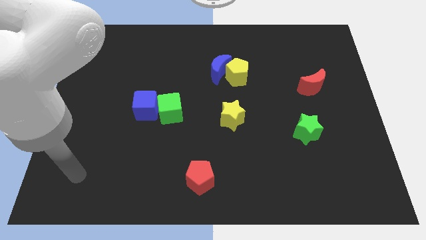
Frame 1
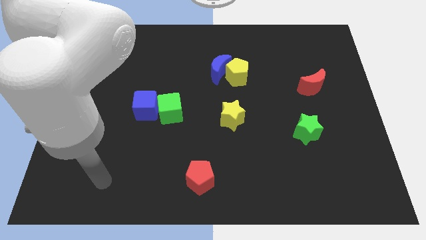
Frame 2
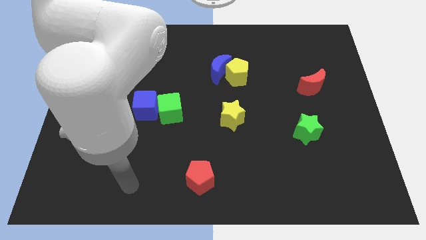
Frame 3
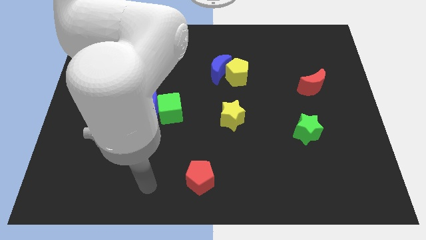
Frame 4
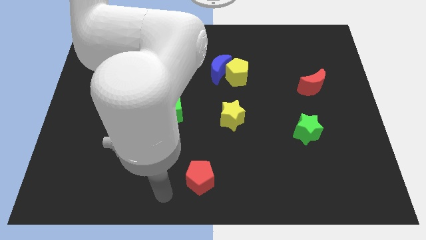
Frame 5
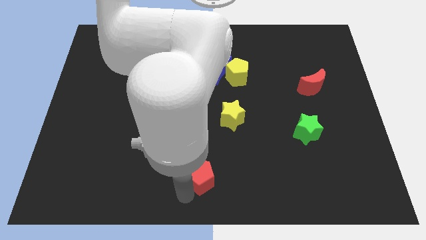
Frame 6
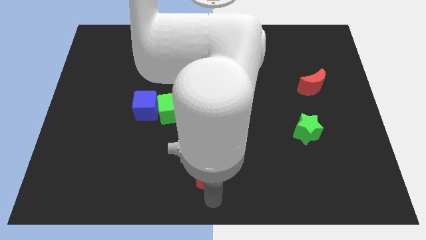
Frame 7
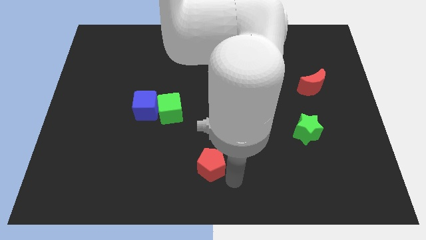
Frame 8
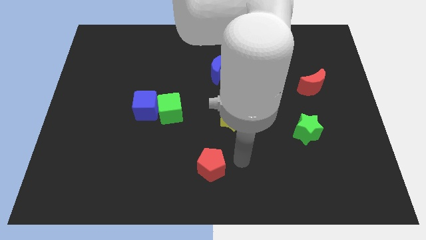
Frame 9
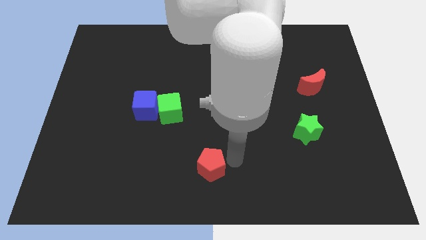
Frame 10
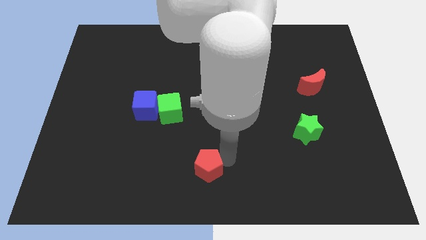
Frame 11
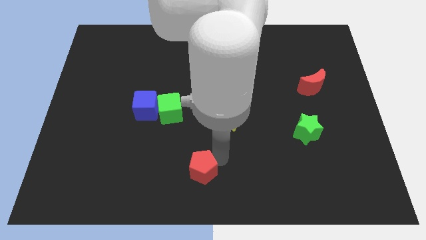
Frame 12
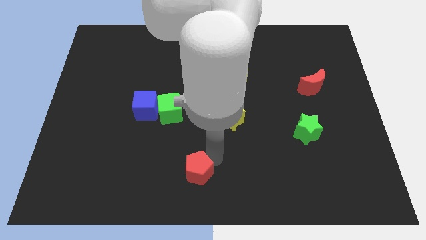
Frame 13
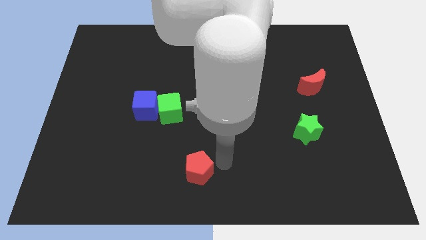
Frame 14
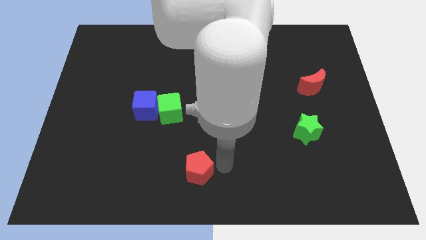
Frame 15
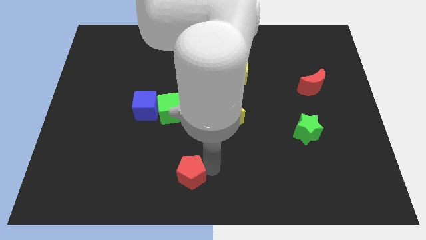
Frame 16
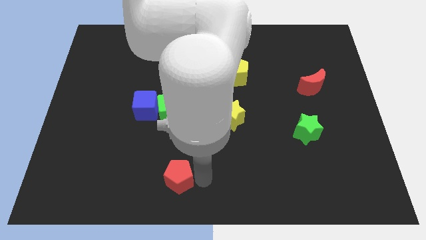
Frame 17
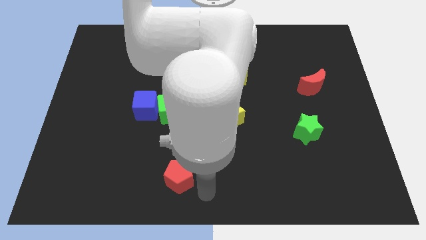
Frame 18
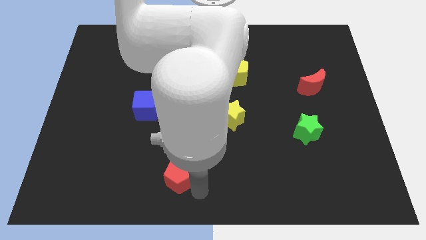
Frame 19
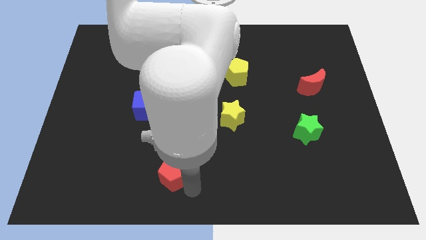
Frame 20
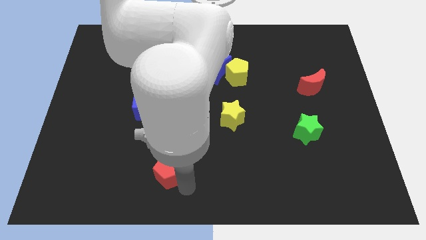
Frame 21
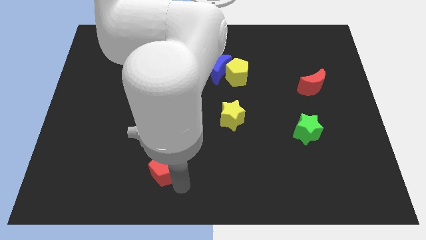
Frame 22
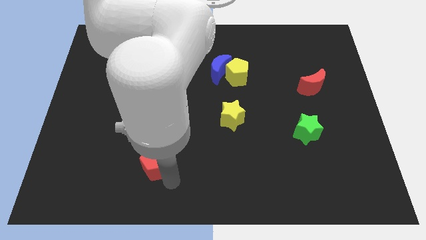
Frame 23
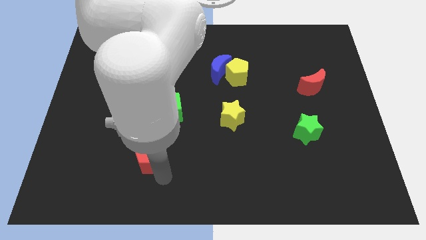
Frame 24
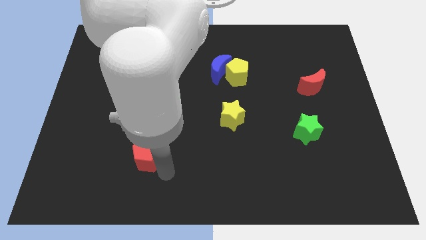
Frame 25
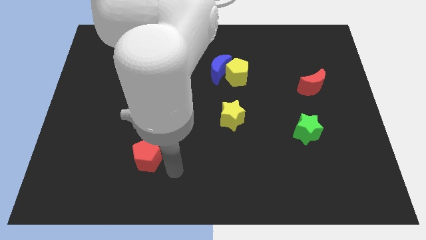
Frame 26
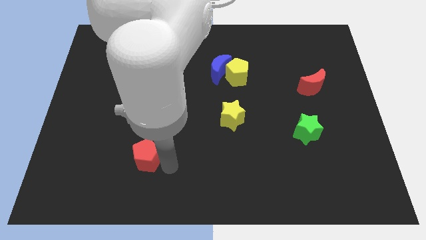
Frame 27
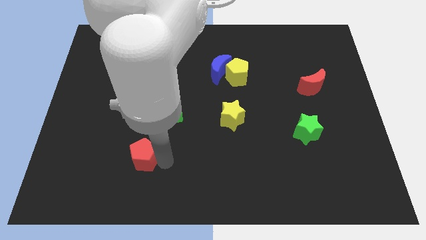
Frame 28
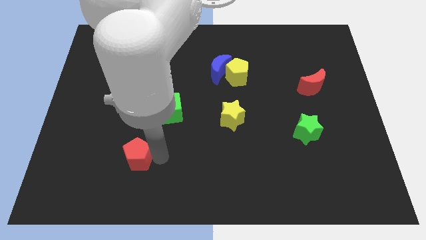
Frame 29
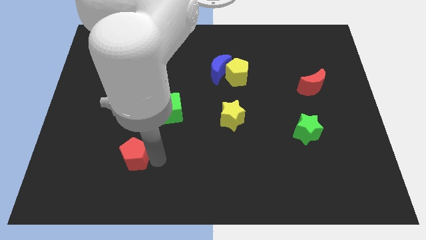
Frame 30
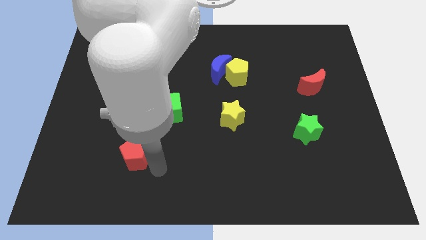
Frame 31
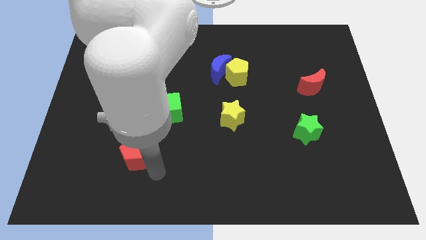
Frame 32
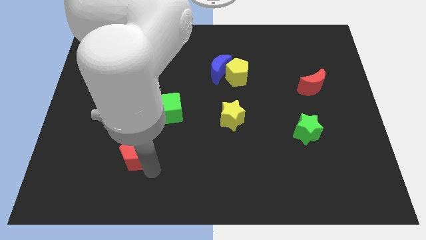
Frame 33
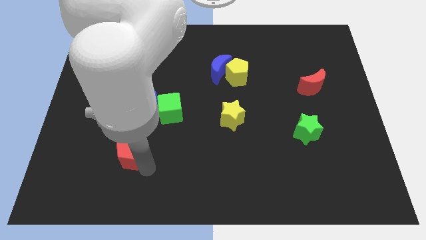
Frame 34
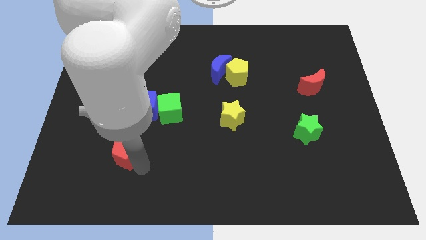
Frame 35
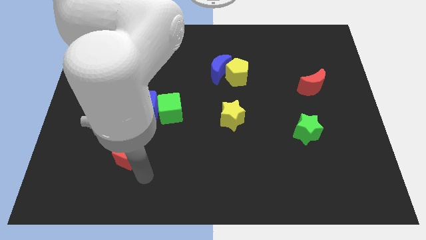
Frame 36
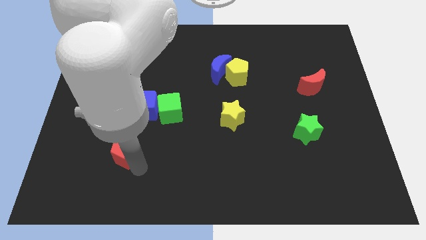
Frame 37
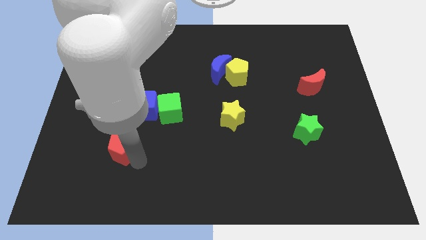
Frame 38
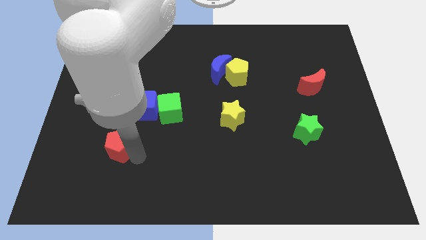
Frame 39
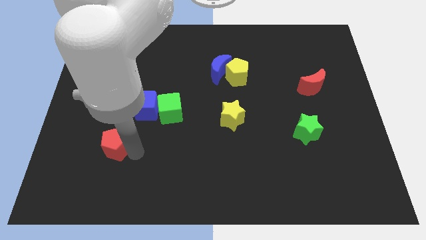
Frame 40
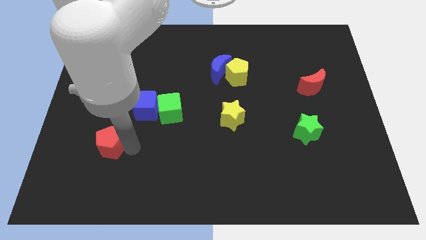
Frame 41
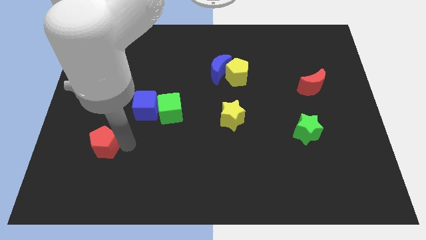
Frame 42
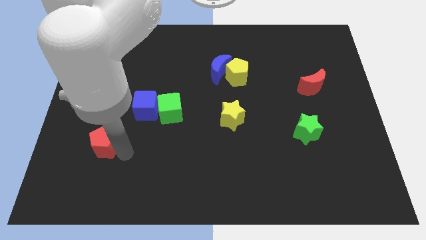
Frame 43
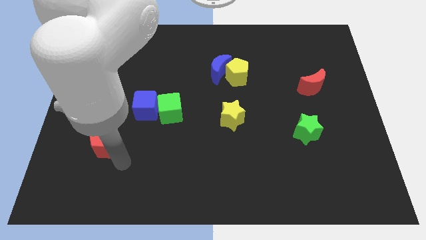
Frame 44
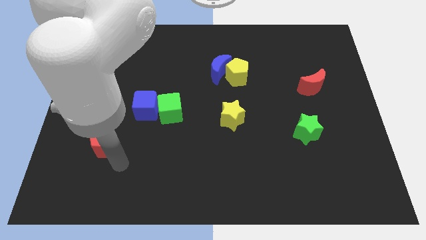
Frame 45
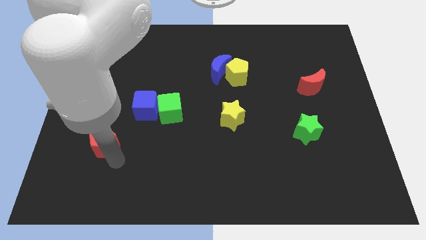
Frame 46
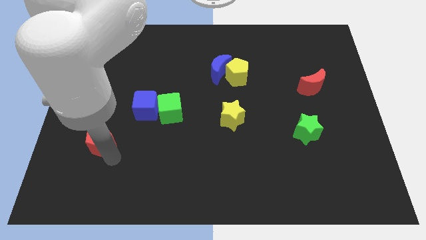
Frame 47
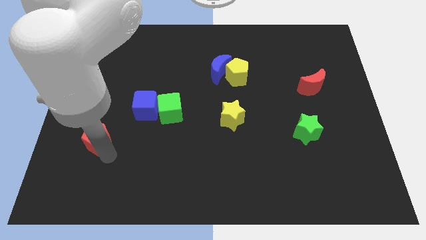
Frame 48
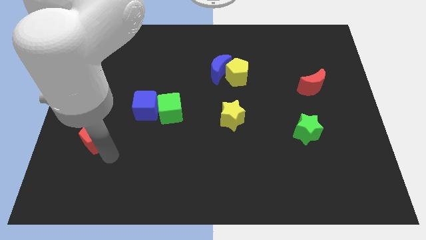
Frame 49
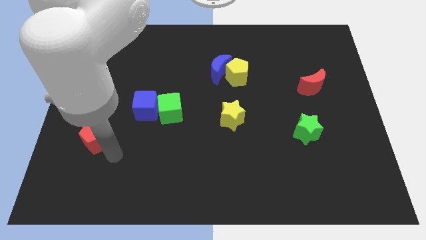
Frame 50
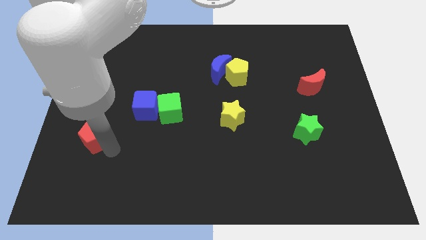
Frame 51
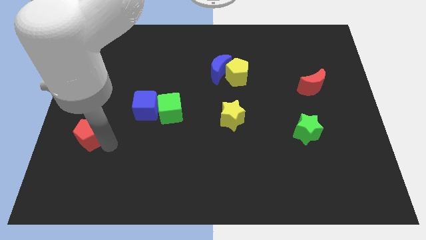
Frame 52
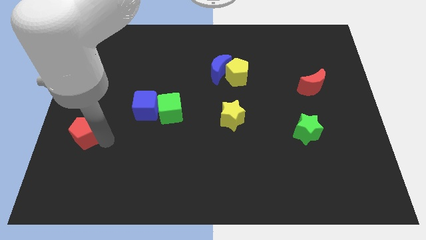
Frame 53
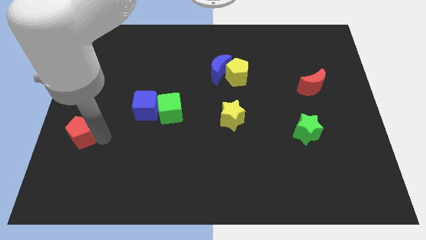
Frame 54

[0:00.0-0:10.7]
push the red pentagon to the left side

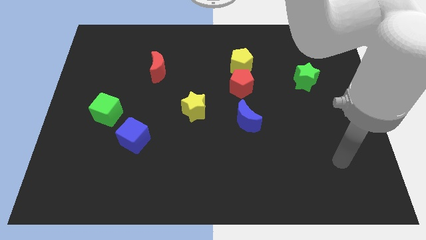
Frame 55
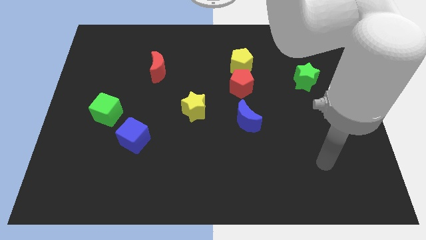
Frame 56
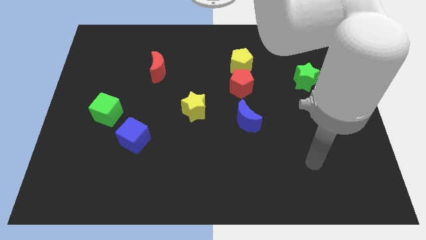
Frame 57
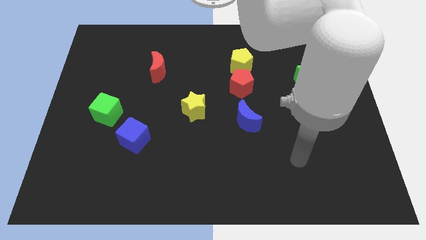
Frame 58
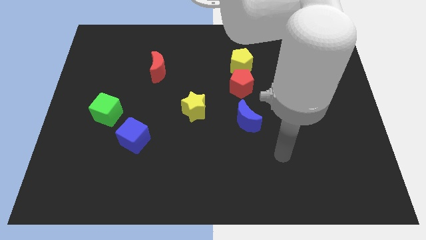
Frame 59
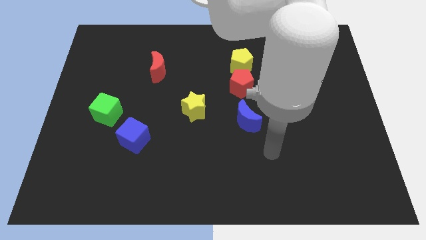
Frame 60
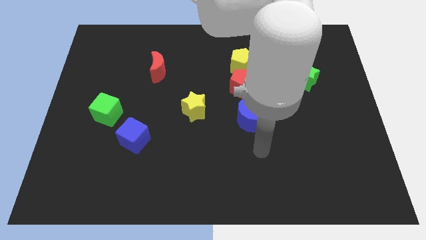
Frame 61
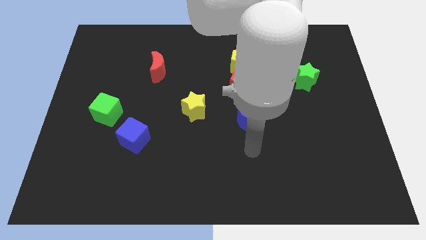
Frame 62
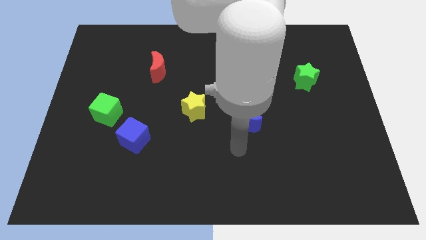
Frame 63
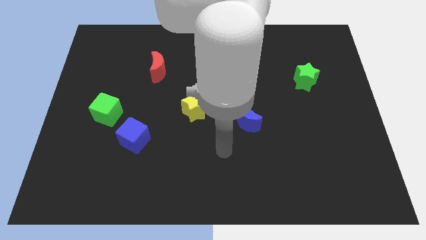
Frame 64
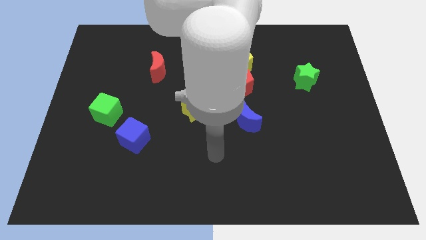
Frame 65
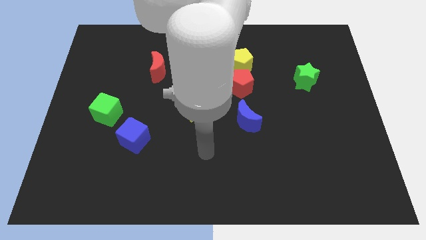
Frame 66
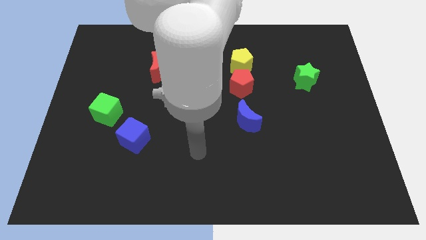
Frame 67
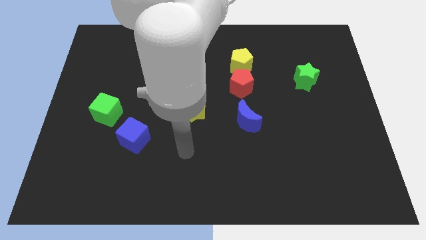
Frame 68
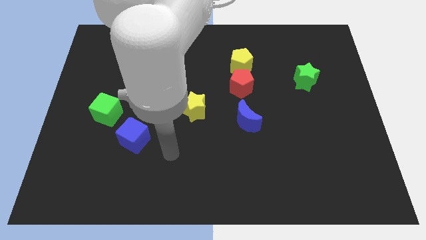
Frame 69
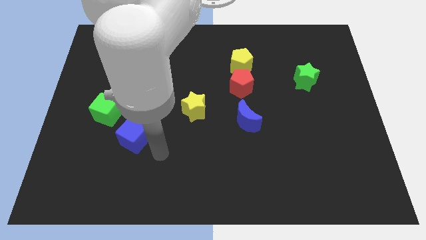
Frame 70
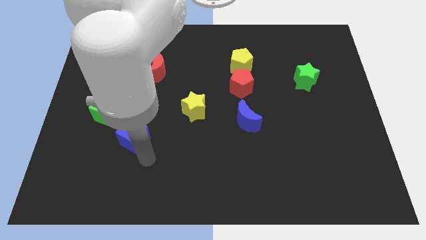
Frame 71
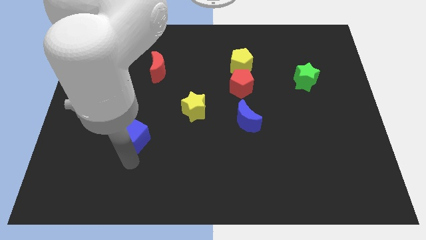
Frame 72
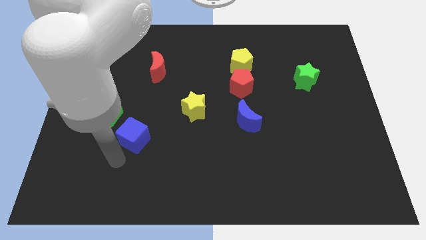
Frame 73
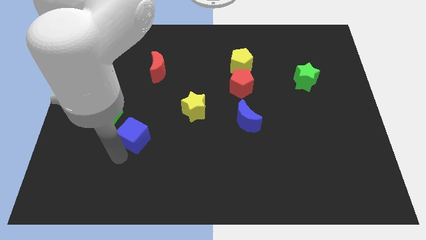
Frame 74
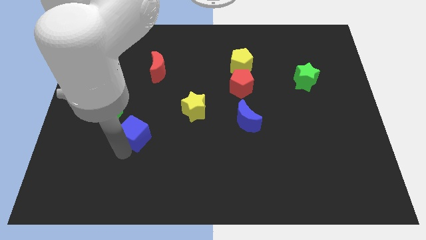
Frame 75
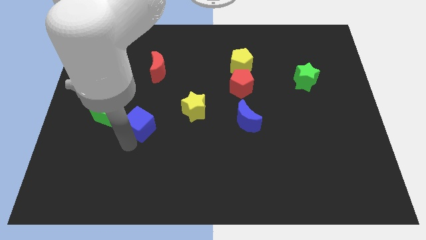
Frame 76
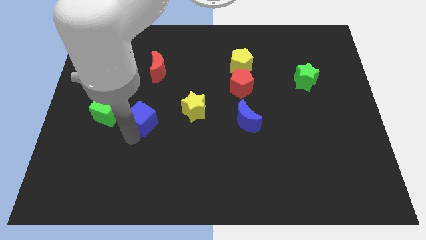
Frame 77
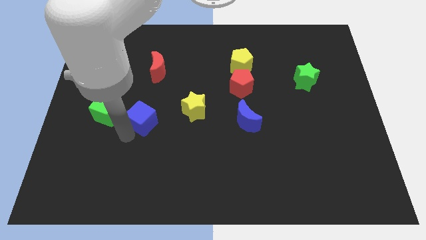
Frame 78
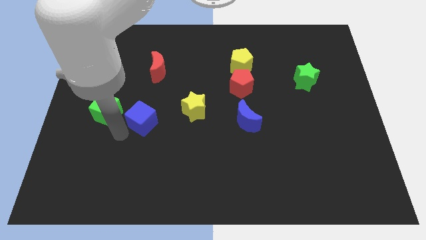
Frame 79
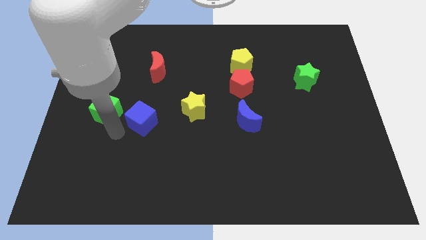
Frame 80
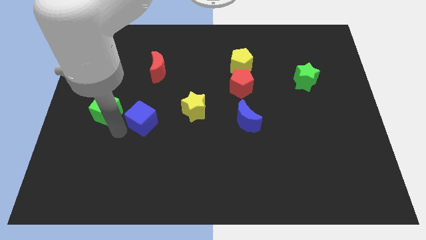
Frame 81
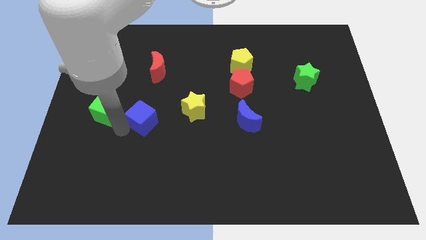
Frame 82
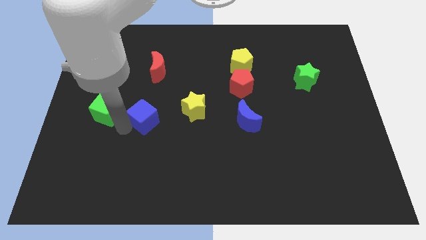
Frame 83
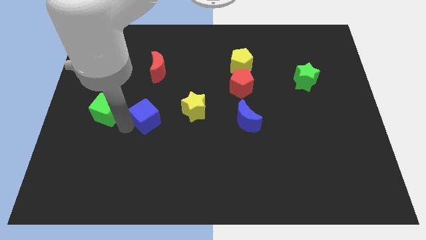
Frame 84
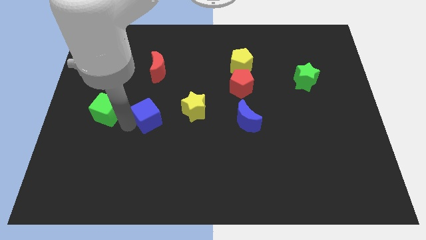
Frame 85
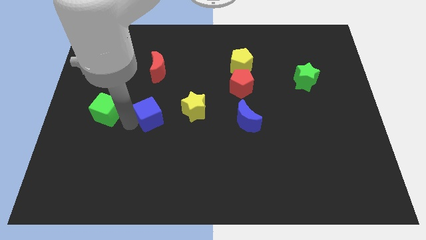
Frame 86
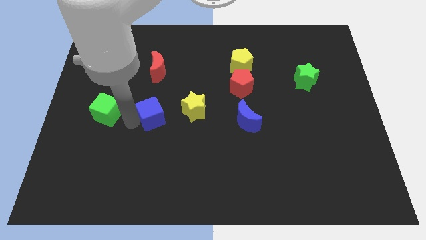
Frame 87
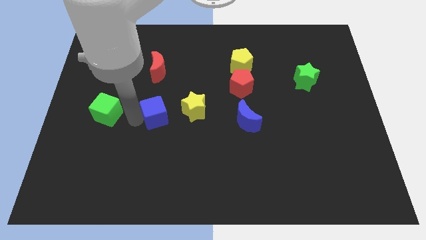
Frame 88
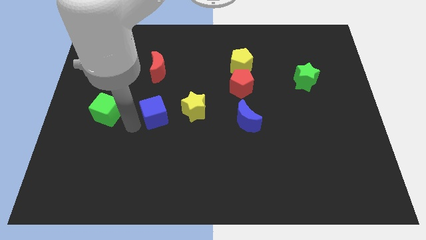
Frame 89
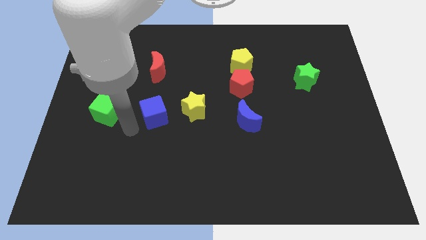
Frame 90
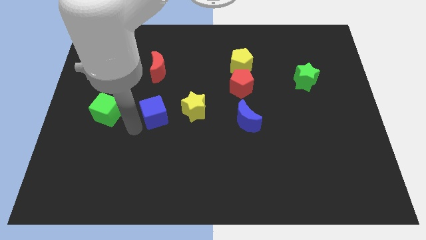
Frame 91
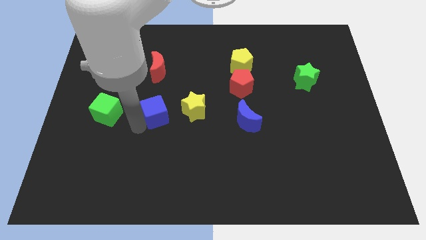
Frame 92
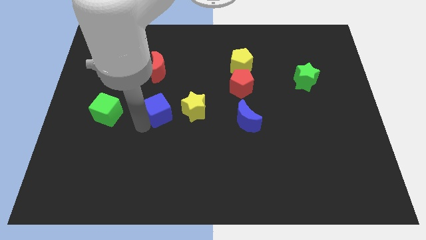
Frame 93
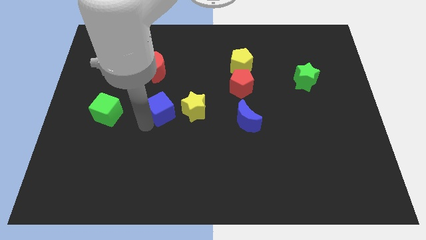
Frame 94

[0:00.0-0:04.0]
slide the blue cube to the middle
